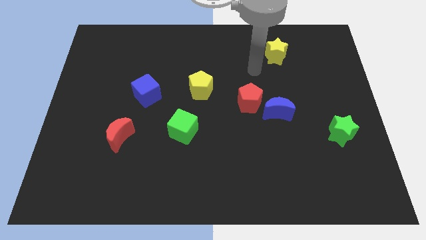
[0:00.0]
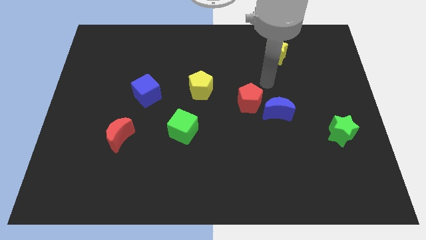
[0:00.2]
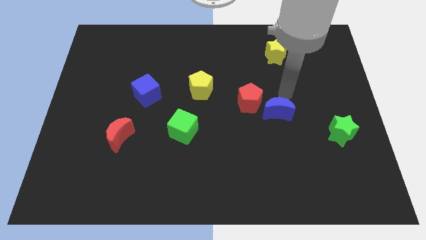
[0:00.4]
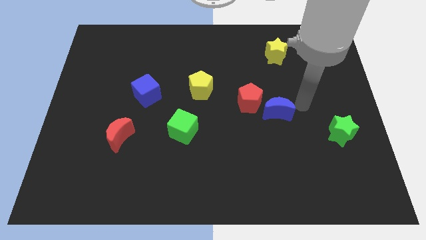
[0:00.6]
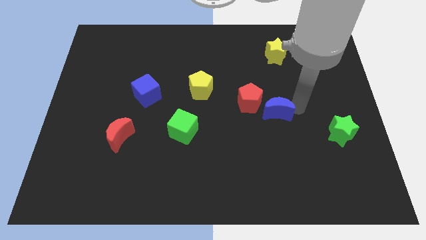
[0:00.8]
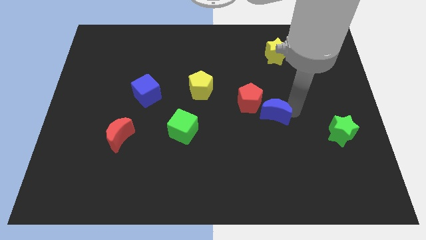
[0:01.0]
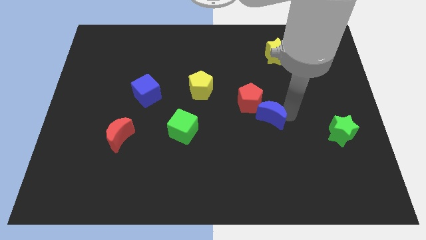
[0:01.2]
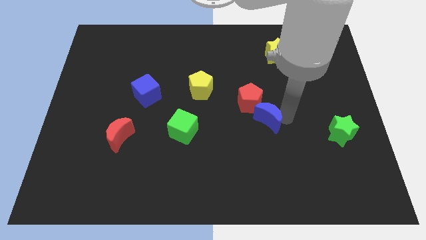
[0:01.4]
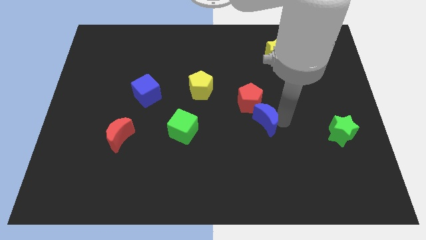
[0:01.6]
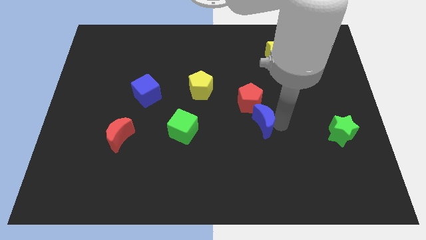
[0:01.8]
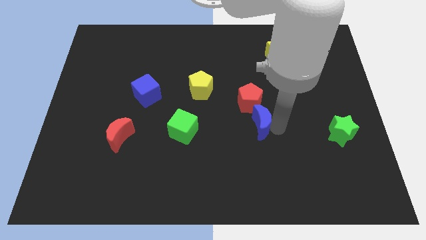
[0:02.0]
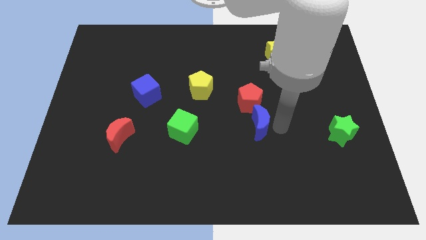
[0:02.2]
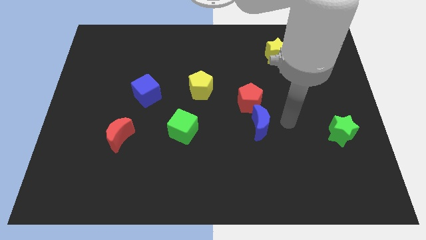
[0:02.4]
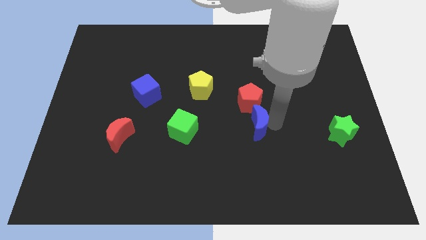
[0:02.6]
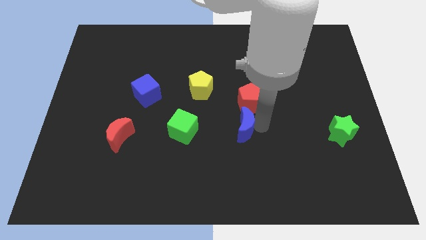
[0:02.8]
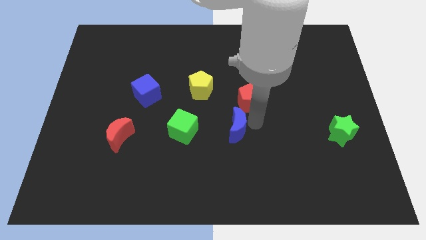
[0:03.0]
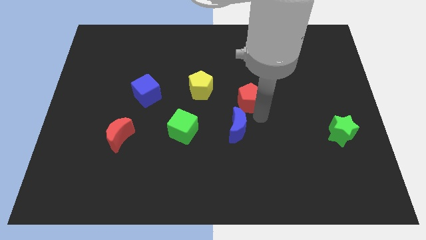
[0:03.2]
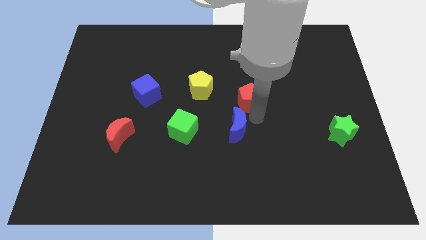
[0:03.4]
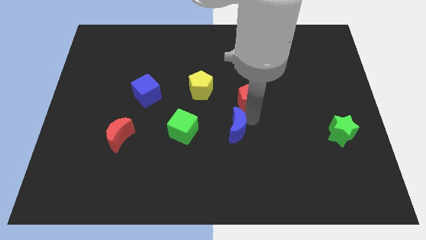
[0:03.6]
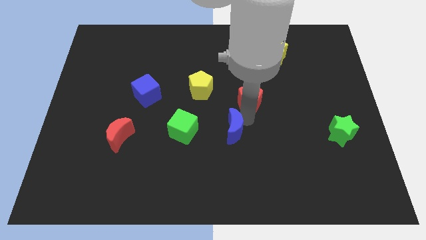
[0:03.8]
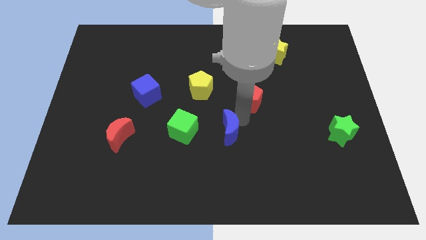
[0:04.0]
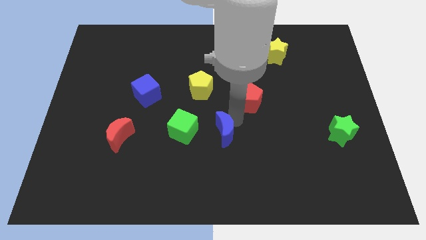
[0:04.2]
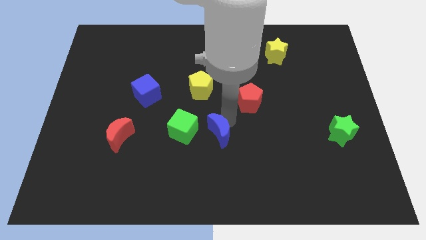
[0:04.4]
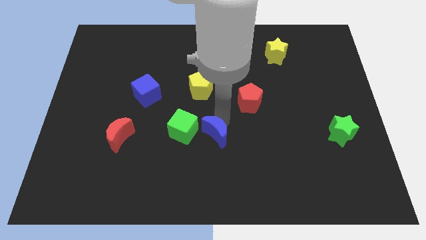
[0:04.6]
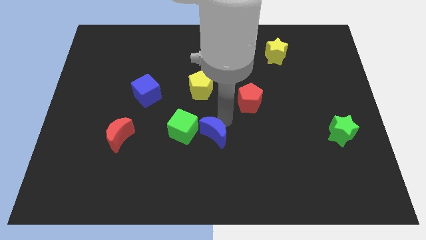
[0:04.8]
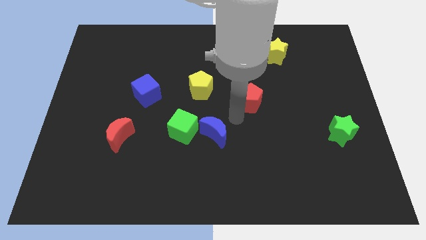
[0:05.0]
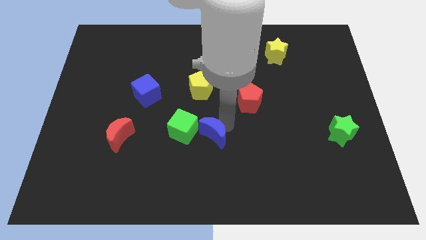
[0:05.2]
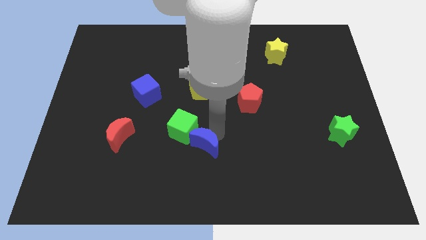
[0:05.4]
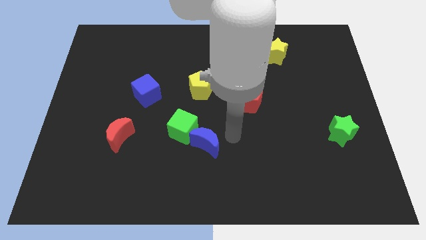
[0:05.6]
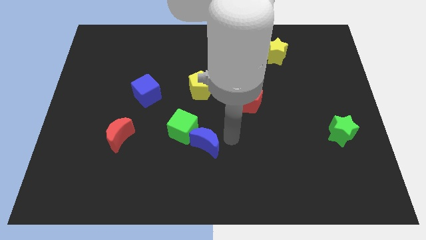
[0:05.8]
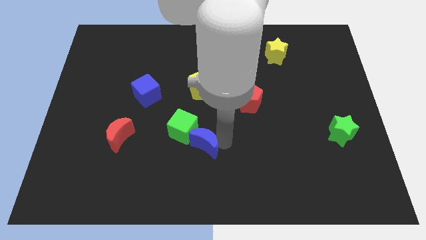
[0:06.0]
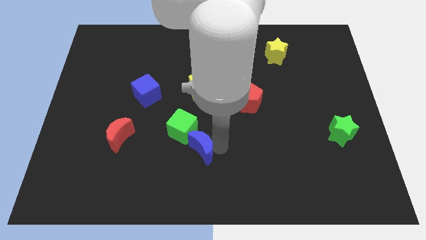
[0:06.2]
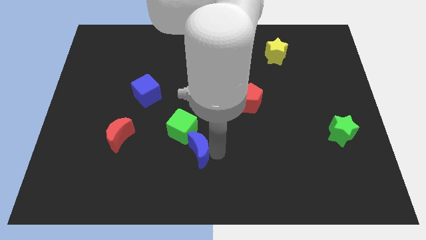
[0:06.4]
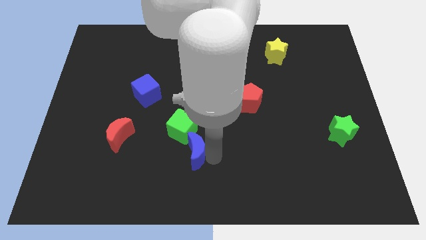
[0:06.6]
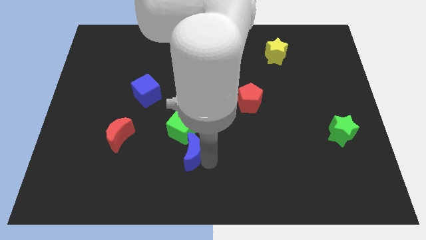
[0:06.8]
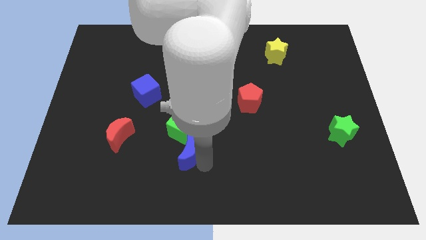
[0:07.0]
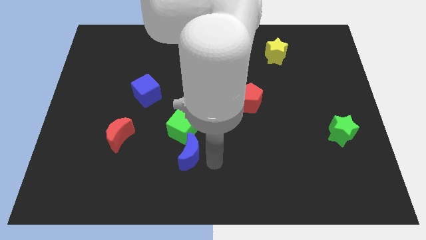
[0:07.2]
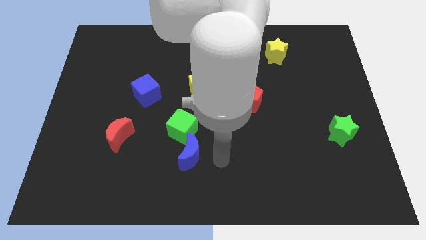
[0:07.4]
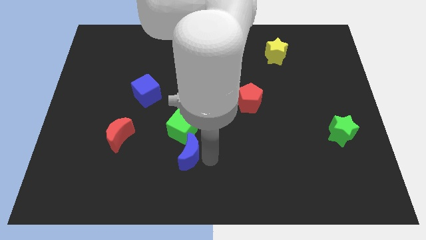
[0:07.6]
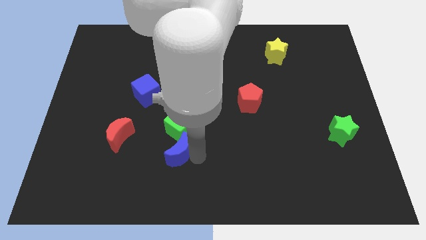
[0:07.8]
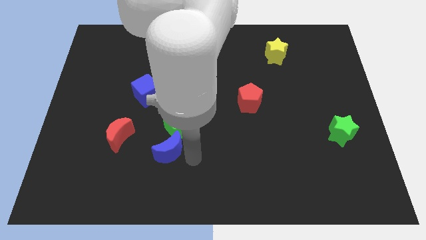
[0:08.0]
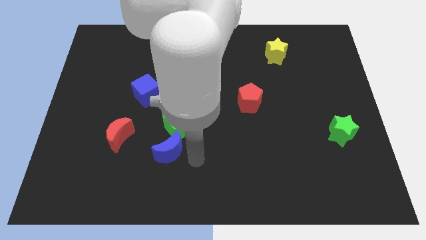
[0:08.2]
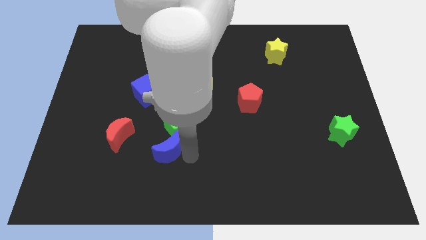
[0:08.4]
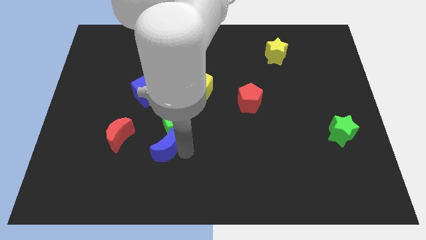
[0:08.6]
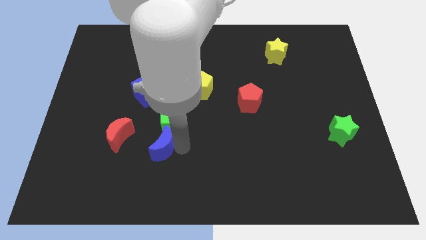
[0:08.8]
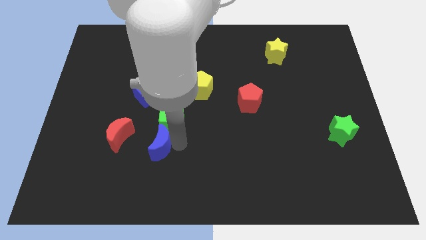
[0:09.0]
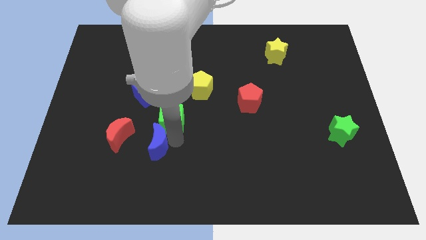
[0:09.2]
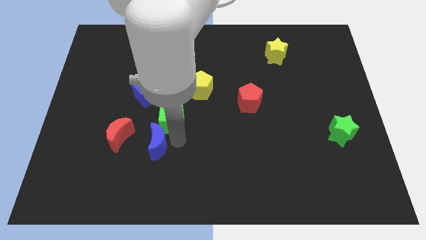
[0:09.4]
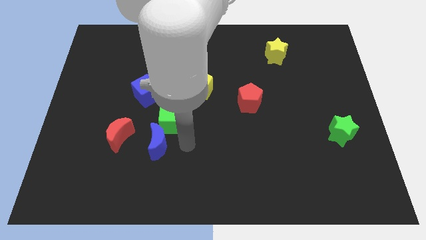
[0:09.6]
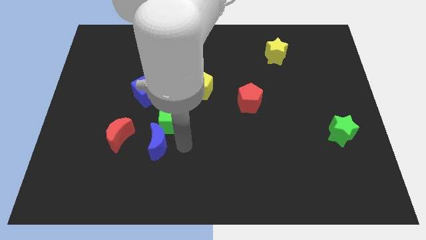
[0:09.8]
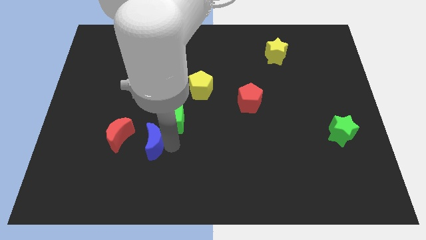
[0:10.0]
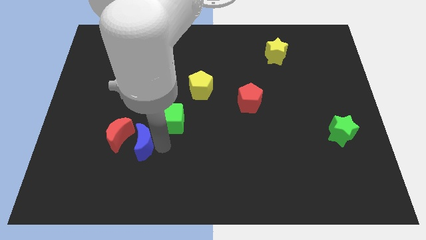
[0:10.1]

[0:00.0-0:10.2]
slide the blue moon next to the red moon

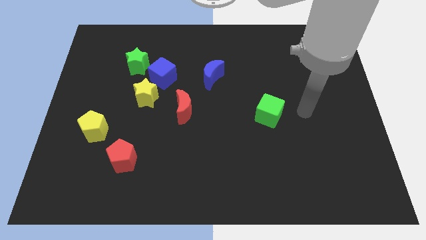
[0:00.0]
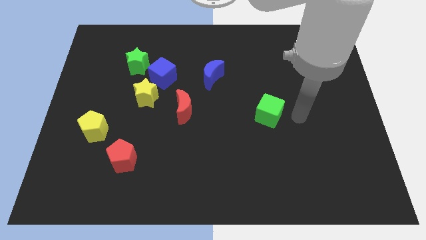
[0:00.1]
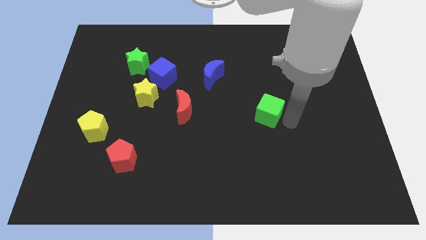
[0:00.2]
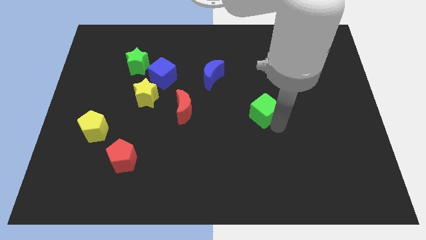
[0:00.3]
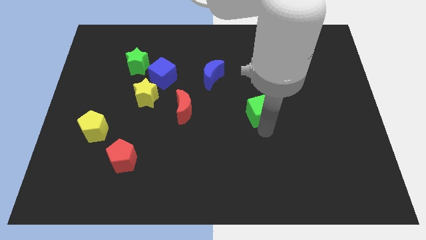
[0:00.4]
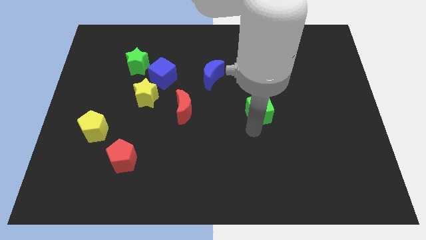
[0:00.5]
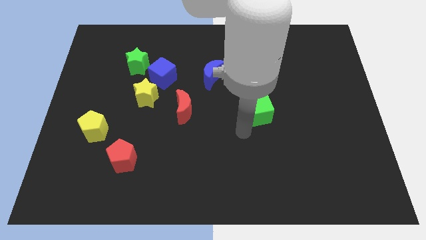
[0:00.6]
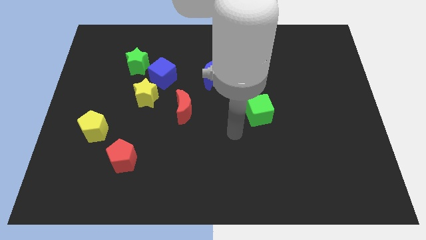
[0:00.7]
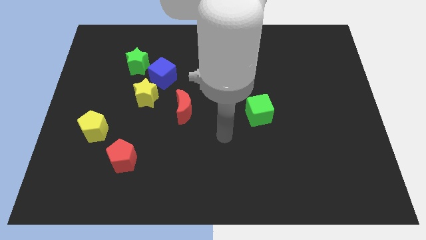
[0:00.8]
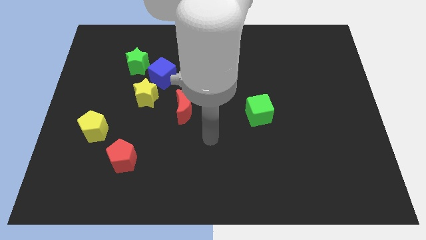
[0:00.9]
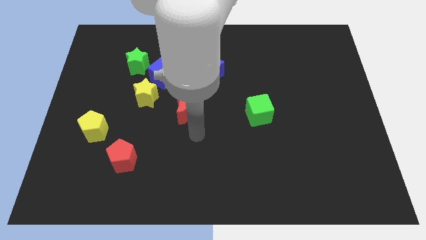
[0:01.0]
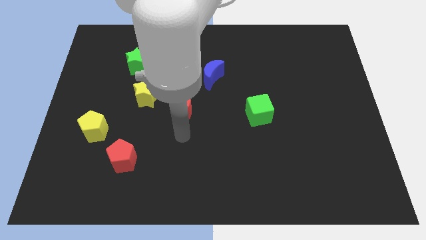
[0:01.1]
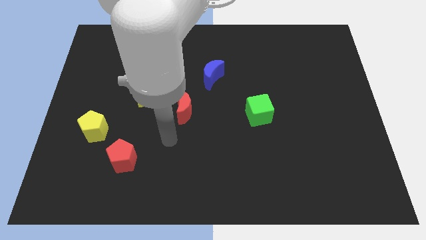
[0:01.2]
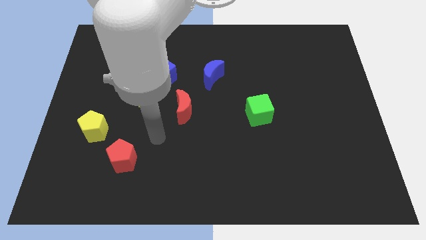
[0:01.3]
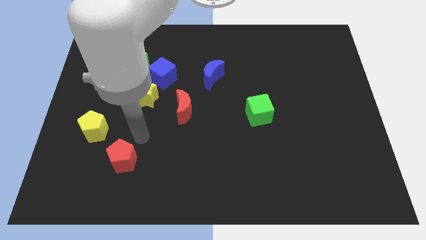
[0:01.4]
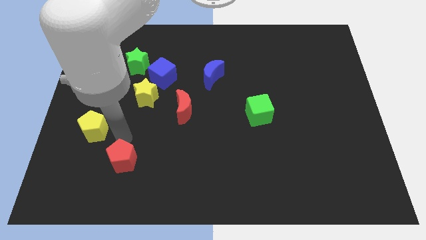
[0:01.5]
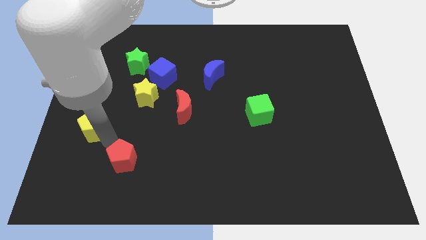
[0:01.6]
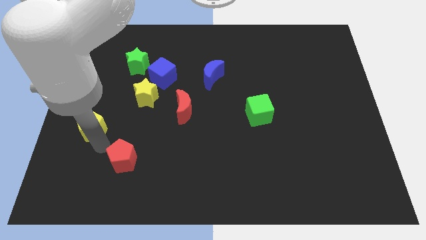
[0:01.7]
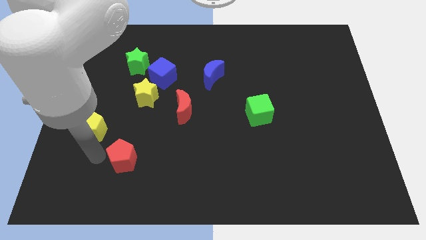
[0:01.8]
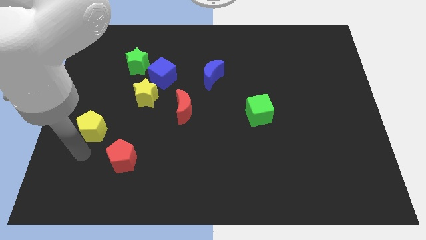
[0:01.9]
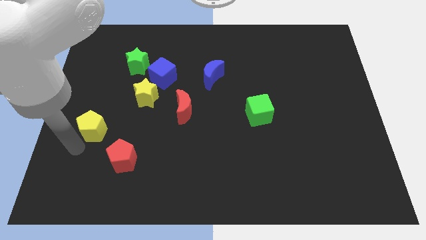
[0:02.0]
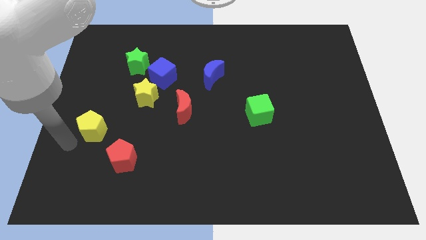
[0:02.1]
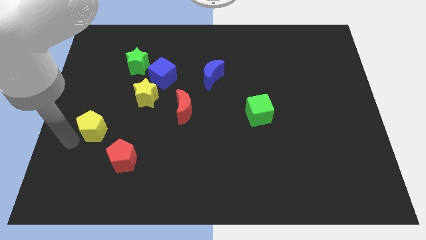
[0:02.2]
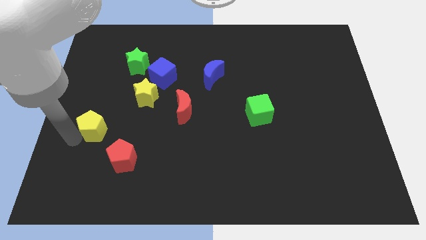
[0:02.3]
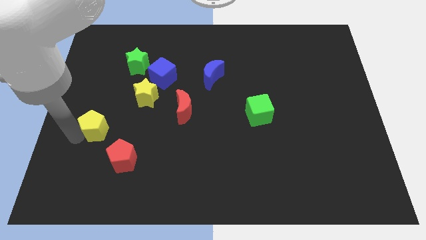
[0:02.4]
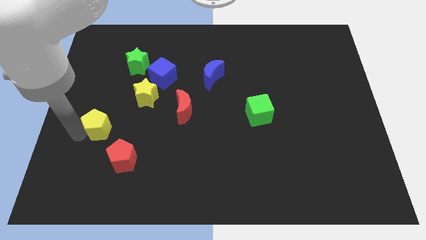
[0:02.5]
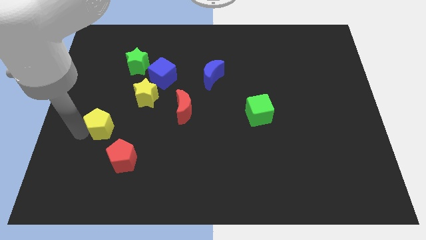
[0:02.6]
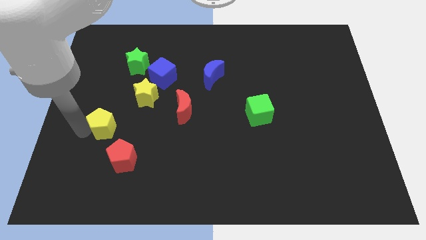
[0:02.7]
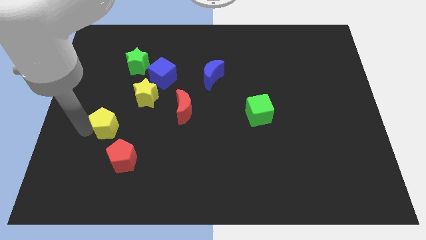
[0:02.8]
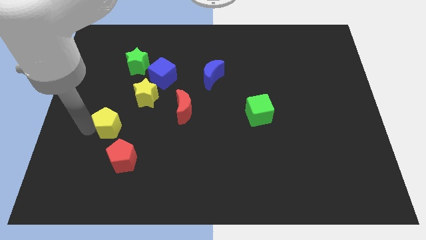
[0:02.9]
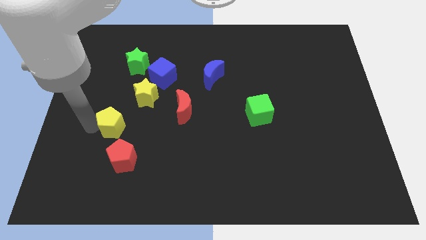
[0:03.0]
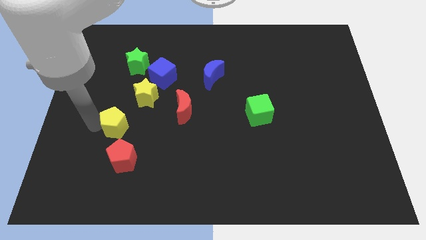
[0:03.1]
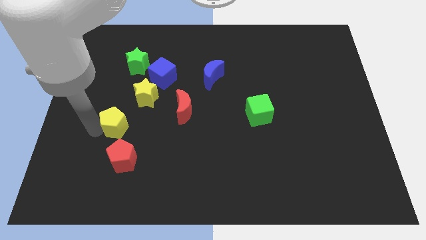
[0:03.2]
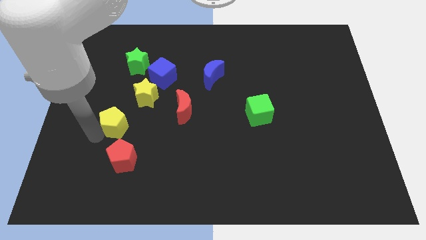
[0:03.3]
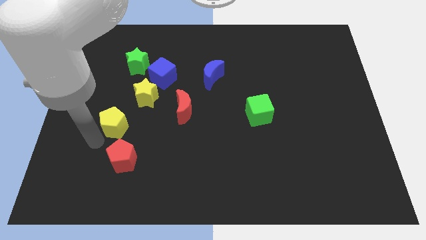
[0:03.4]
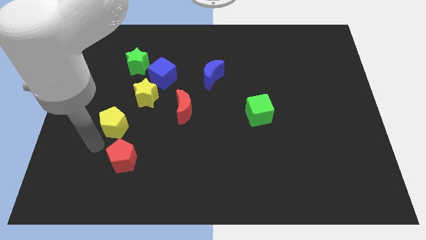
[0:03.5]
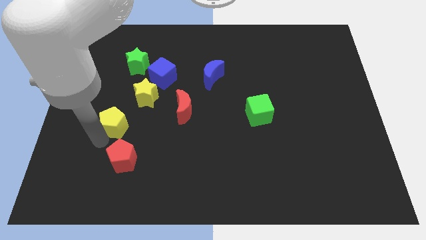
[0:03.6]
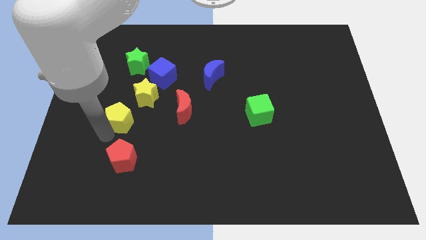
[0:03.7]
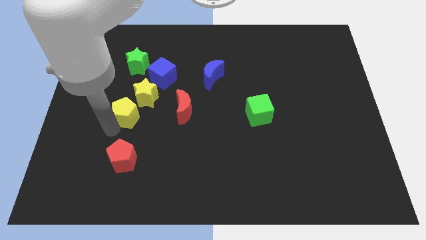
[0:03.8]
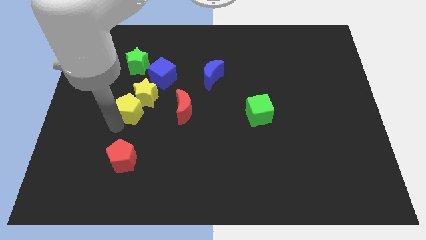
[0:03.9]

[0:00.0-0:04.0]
slide the yellow pentagon to the yellow star
